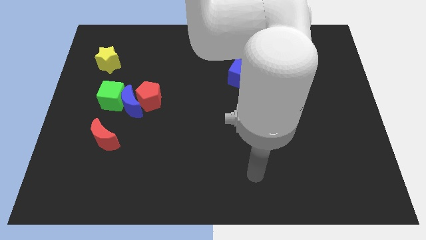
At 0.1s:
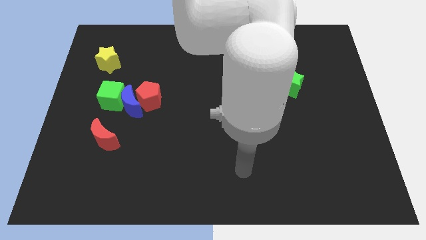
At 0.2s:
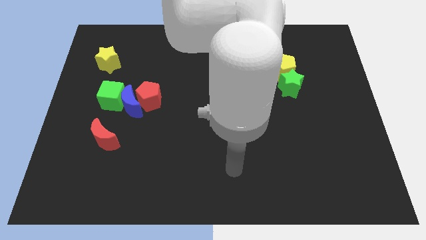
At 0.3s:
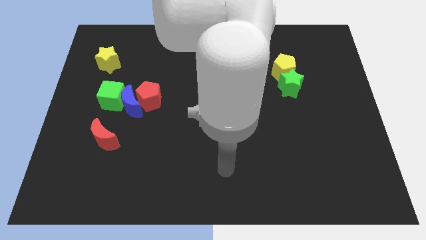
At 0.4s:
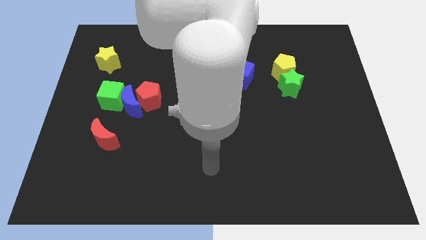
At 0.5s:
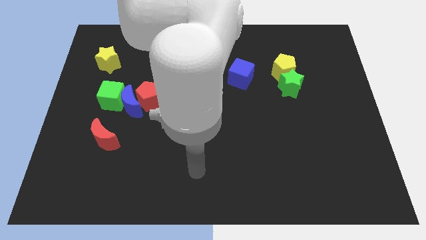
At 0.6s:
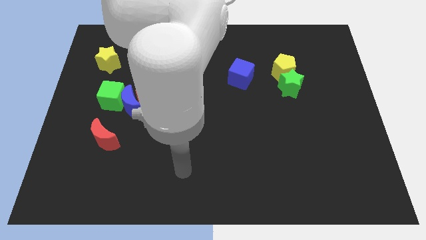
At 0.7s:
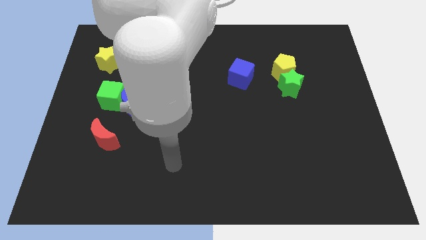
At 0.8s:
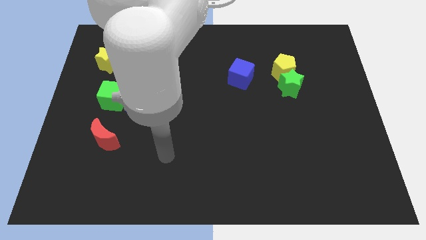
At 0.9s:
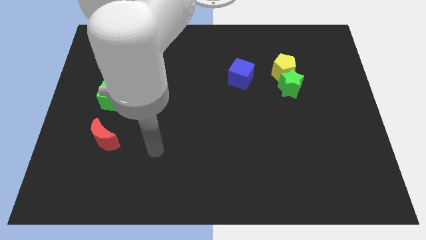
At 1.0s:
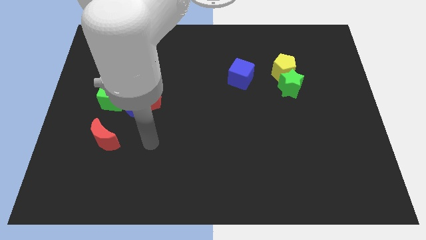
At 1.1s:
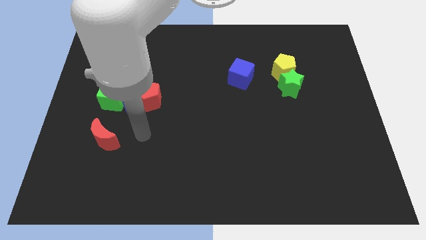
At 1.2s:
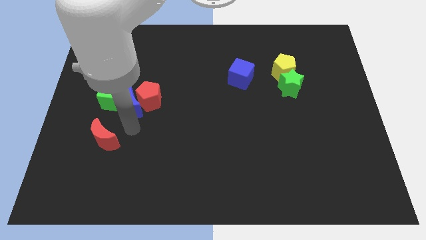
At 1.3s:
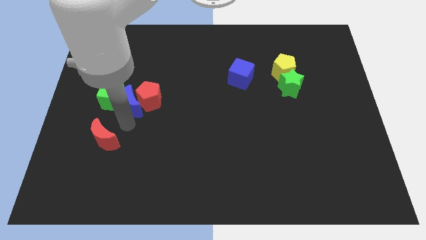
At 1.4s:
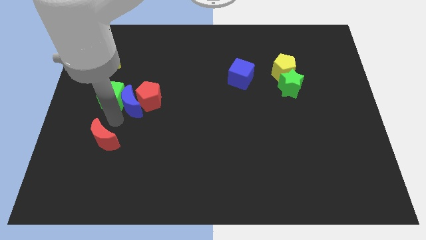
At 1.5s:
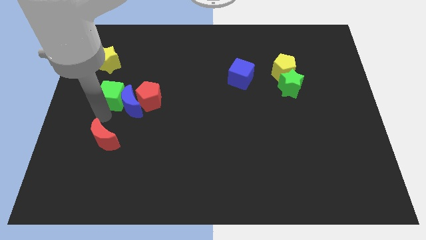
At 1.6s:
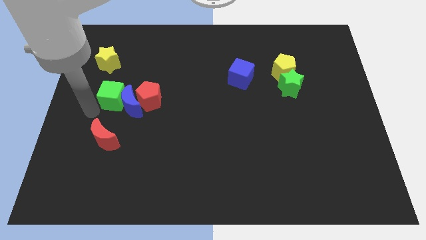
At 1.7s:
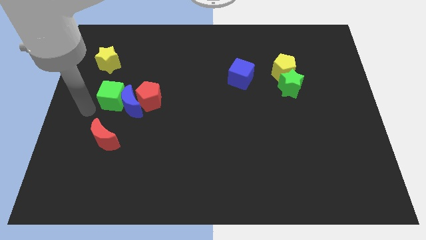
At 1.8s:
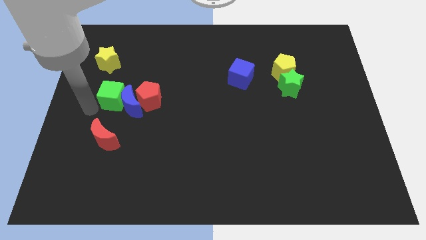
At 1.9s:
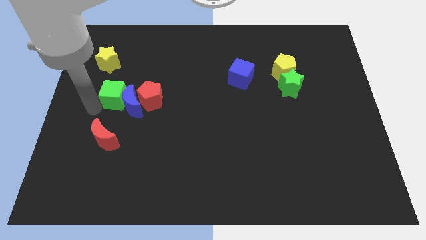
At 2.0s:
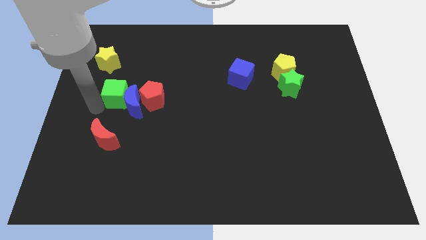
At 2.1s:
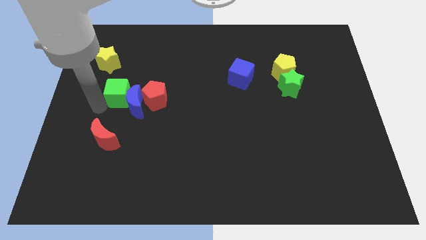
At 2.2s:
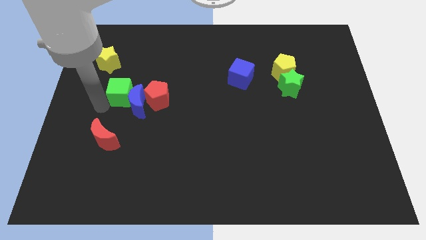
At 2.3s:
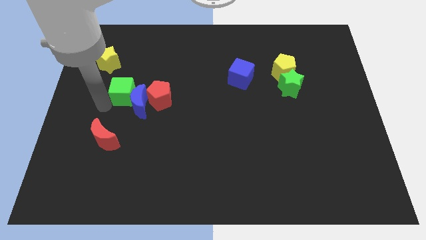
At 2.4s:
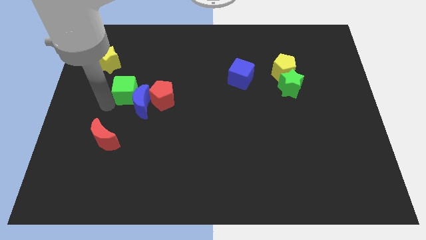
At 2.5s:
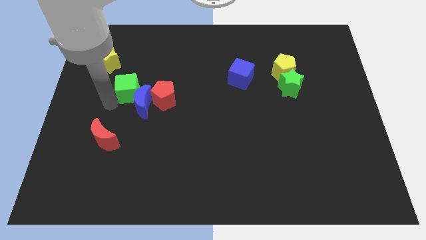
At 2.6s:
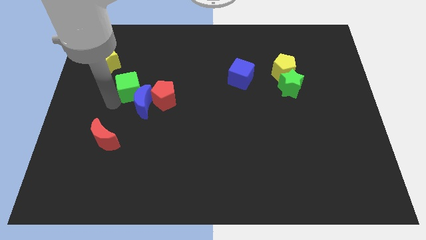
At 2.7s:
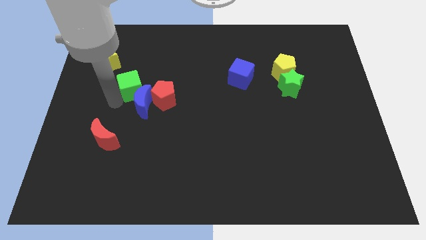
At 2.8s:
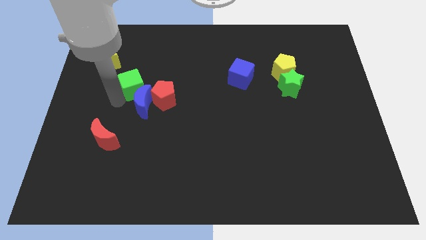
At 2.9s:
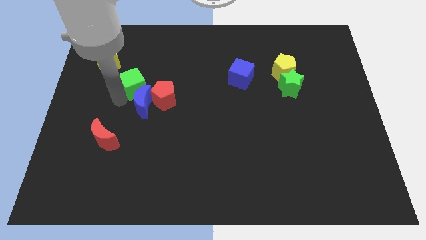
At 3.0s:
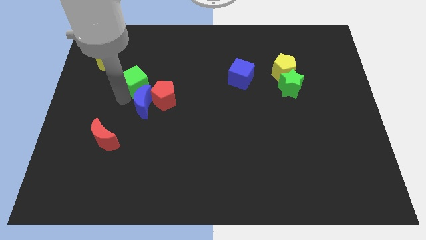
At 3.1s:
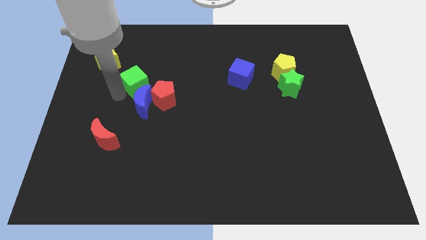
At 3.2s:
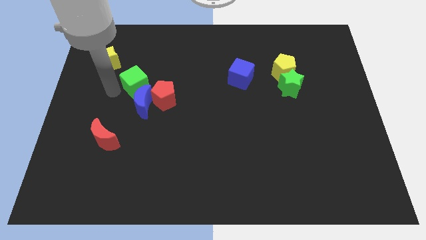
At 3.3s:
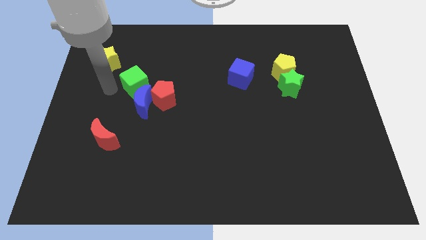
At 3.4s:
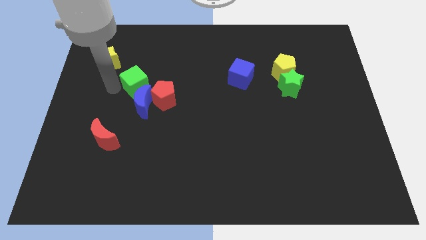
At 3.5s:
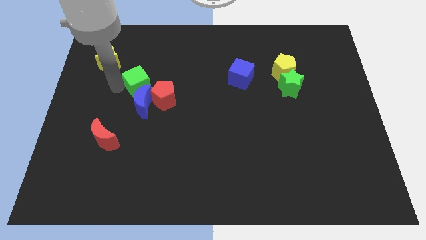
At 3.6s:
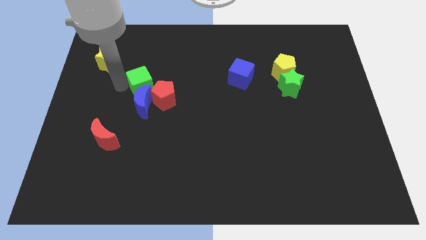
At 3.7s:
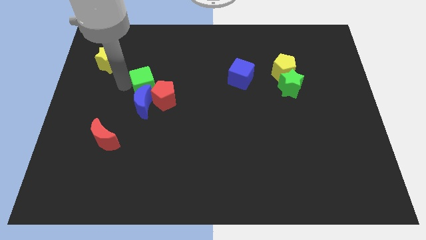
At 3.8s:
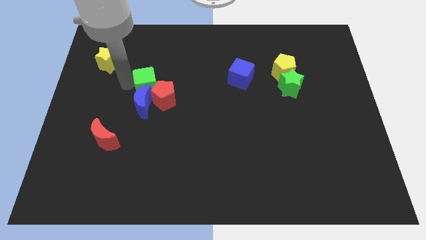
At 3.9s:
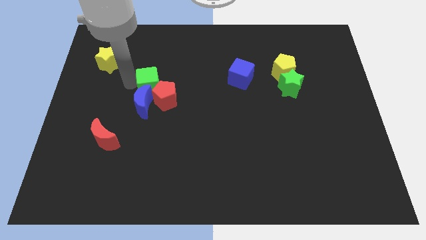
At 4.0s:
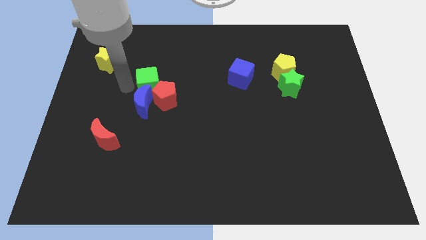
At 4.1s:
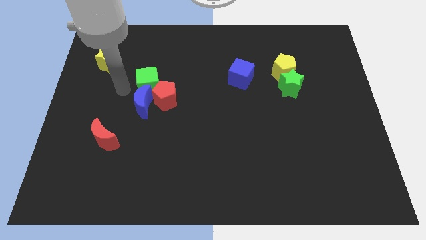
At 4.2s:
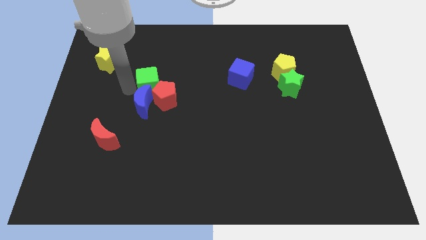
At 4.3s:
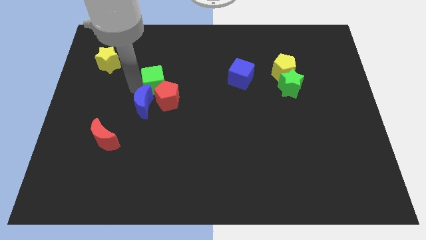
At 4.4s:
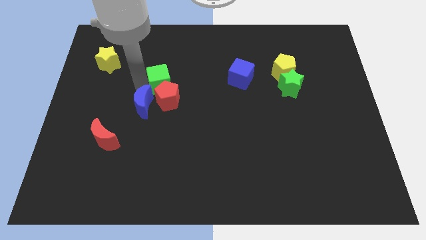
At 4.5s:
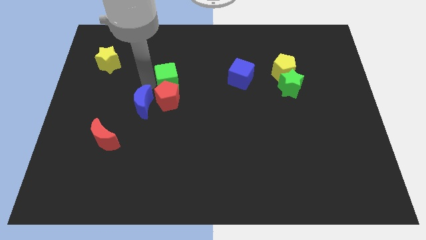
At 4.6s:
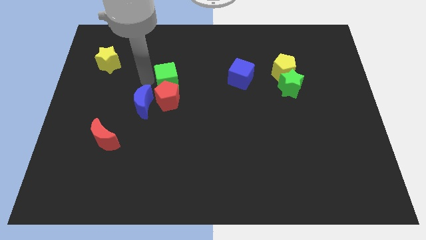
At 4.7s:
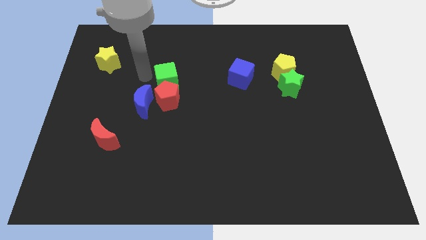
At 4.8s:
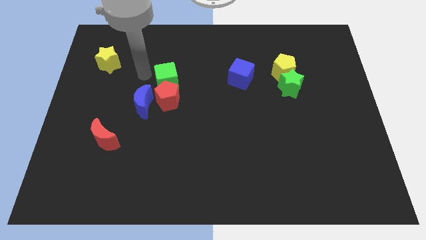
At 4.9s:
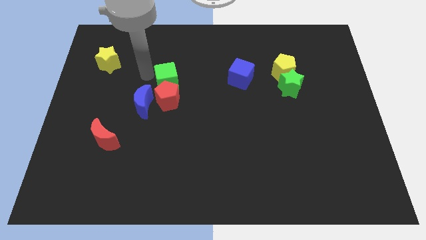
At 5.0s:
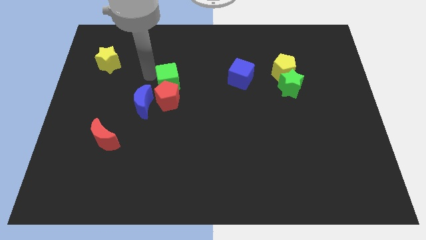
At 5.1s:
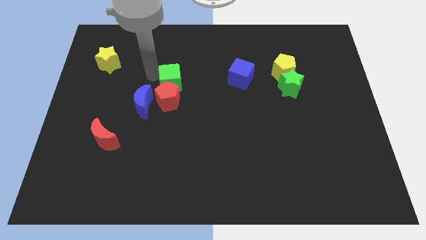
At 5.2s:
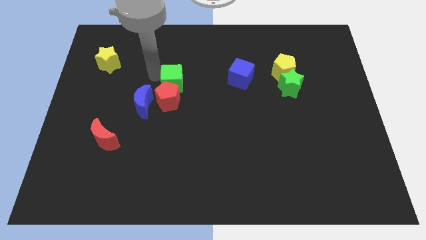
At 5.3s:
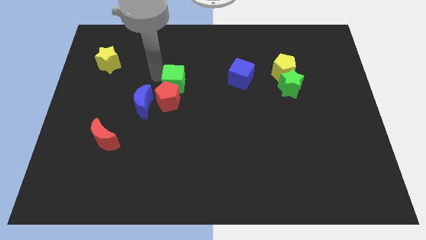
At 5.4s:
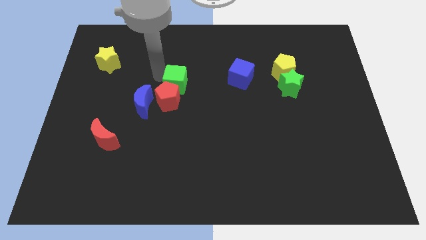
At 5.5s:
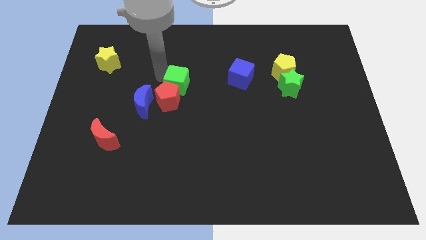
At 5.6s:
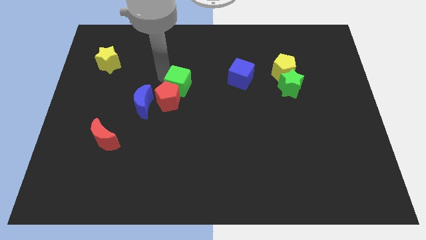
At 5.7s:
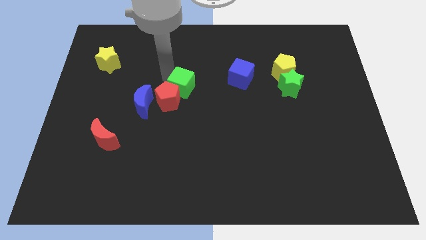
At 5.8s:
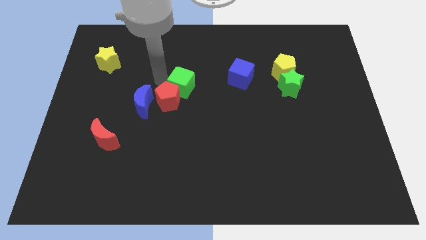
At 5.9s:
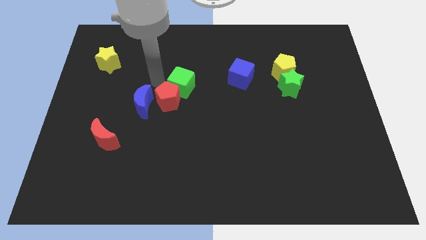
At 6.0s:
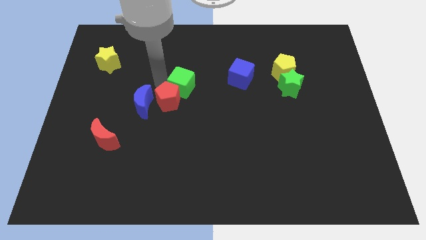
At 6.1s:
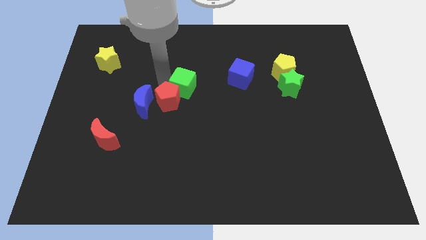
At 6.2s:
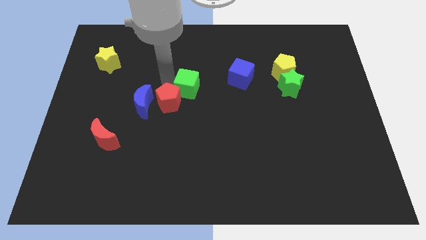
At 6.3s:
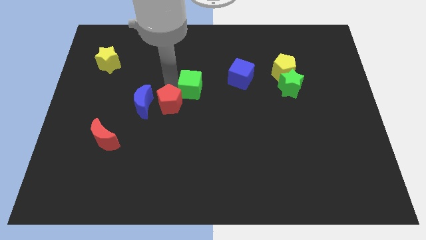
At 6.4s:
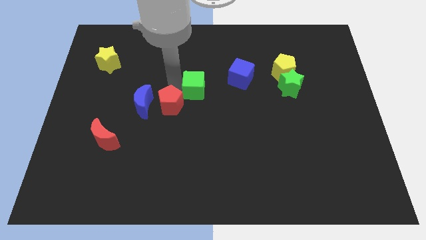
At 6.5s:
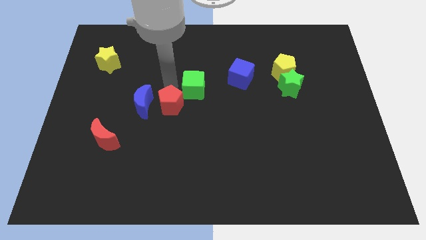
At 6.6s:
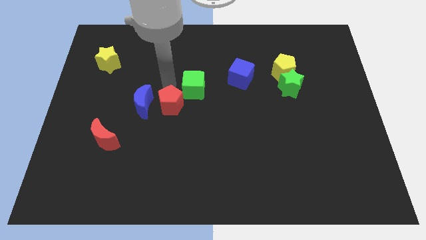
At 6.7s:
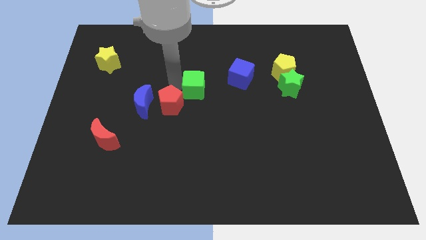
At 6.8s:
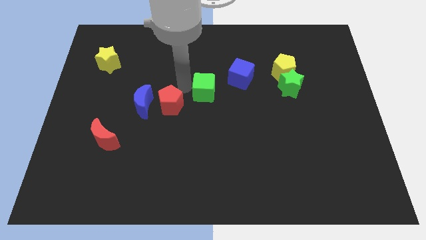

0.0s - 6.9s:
slide the green cube right

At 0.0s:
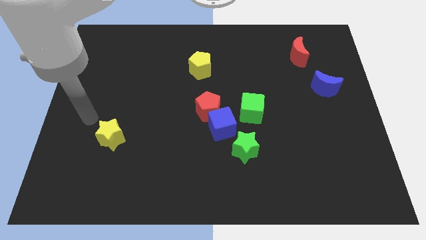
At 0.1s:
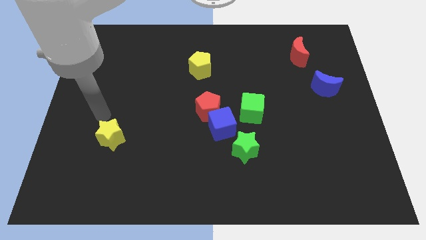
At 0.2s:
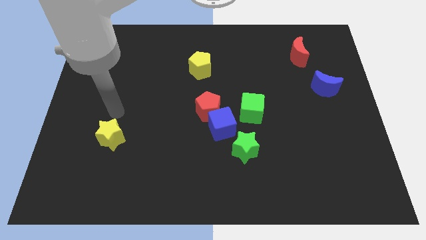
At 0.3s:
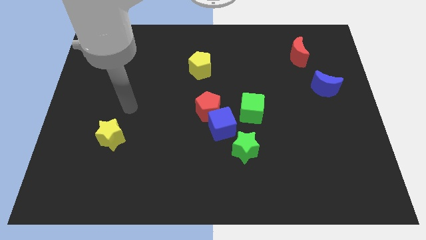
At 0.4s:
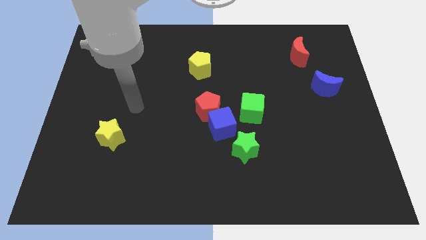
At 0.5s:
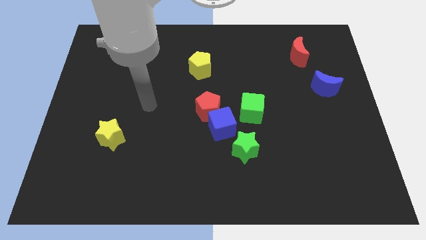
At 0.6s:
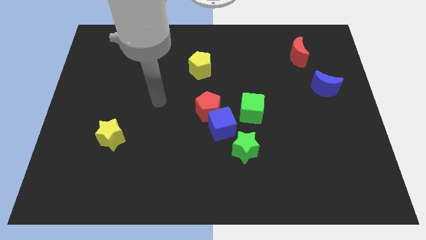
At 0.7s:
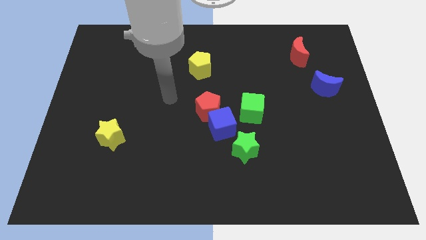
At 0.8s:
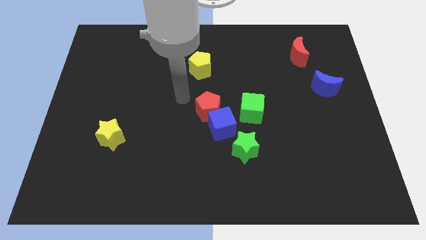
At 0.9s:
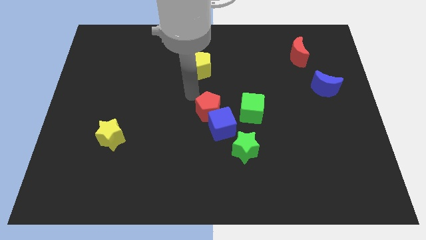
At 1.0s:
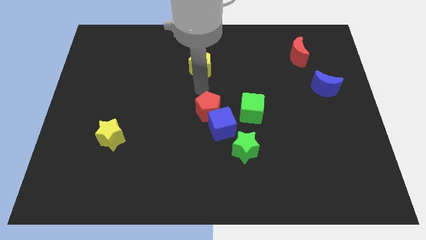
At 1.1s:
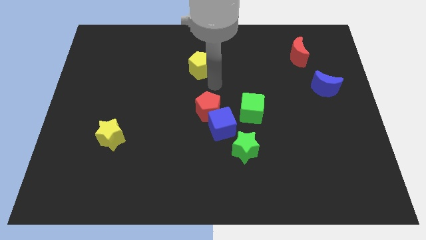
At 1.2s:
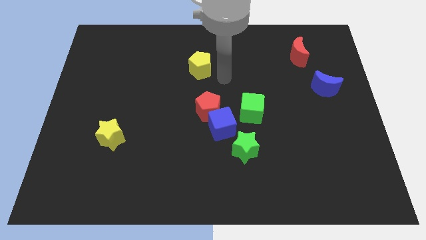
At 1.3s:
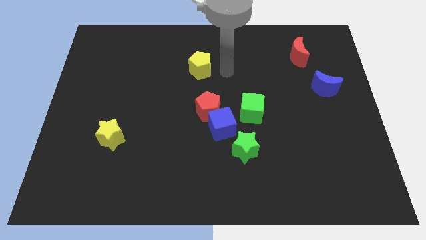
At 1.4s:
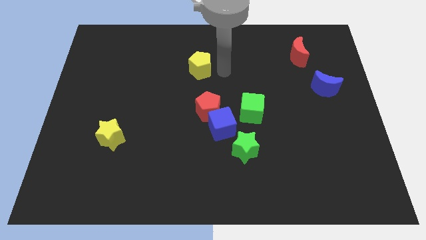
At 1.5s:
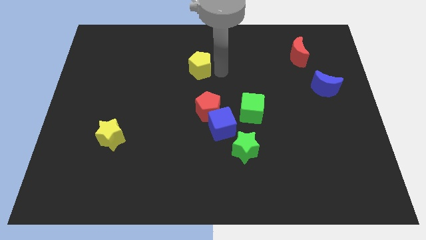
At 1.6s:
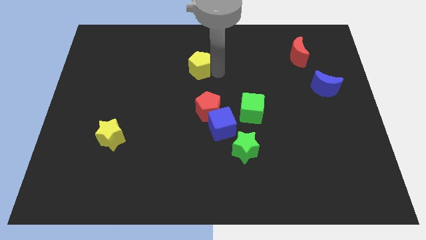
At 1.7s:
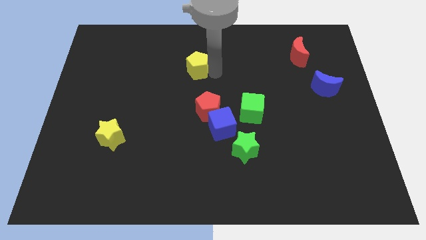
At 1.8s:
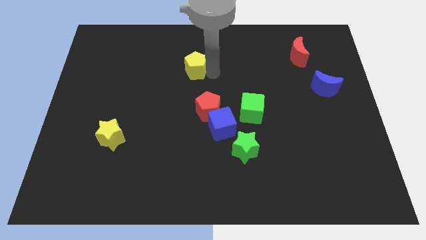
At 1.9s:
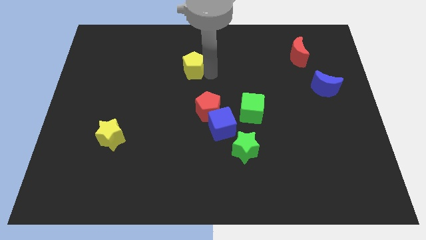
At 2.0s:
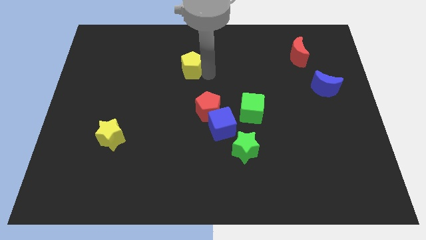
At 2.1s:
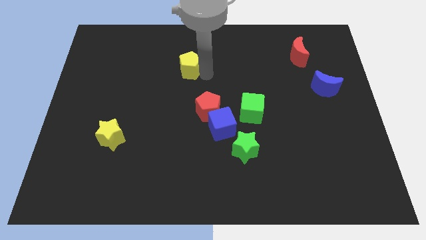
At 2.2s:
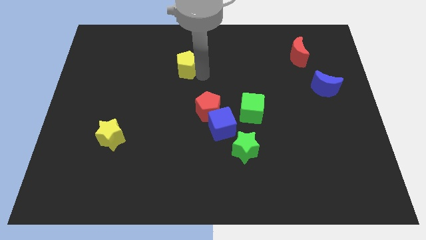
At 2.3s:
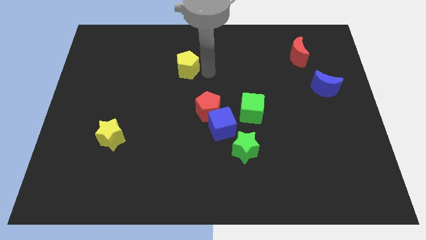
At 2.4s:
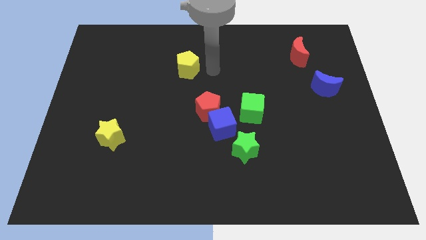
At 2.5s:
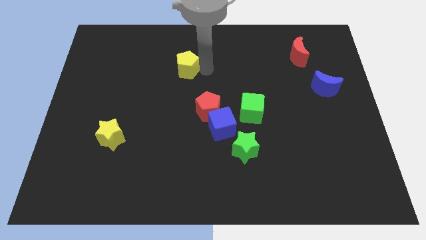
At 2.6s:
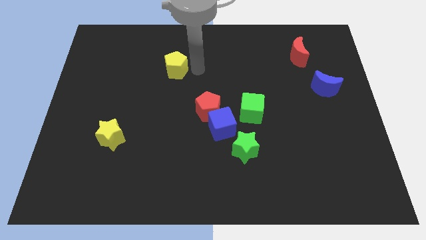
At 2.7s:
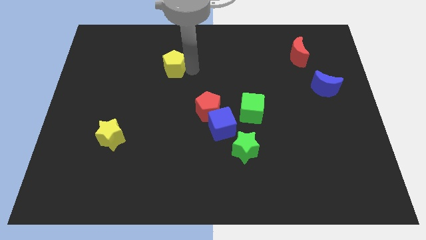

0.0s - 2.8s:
slide the yellow pentagon somewhat left
